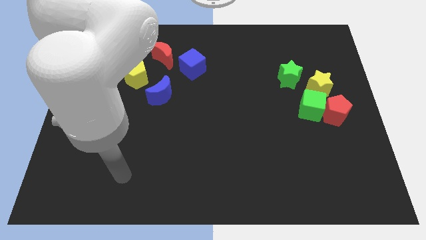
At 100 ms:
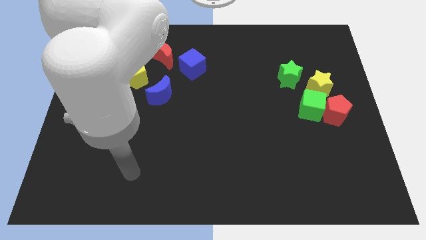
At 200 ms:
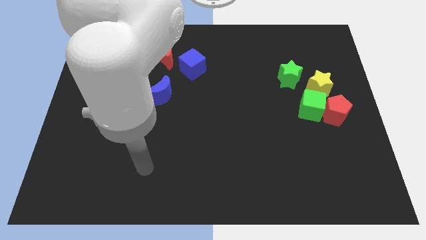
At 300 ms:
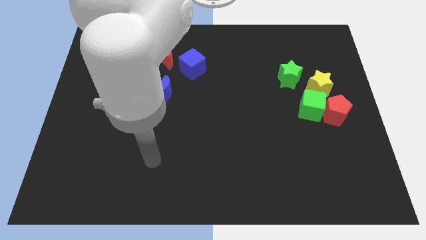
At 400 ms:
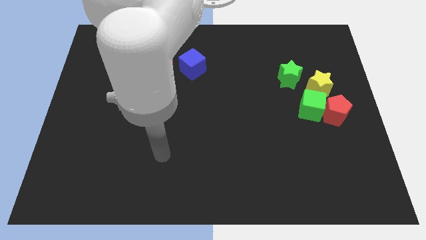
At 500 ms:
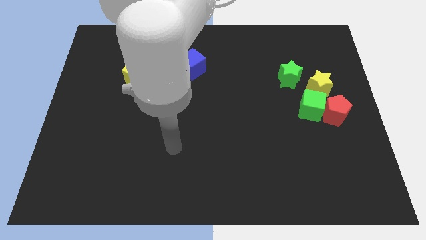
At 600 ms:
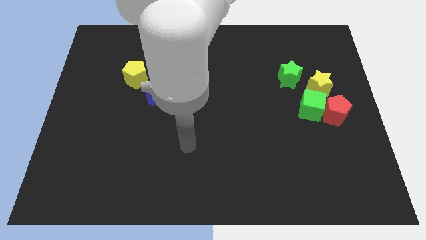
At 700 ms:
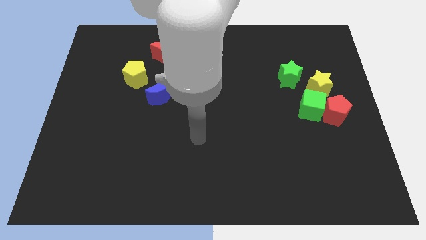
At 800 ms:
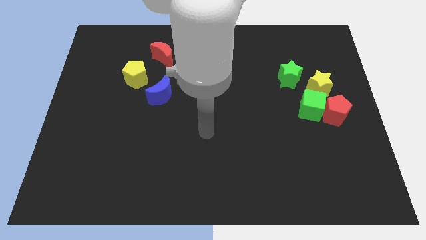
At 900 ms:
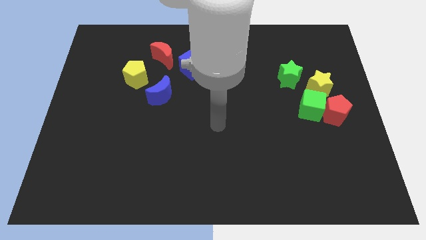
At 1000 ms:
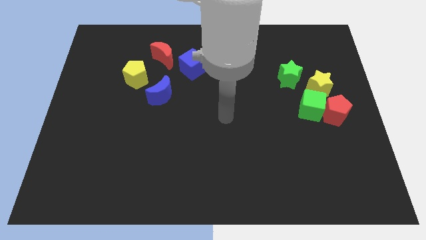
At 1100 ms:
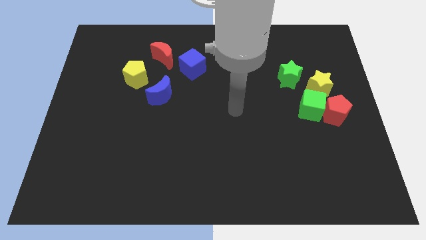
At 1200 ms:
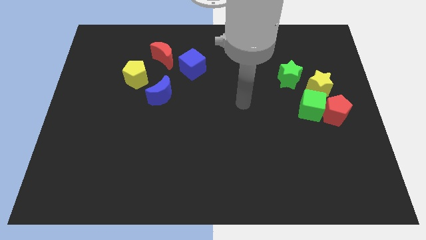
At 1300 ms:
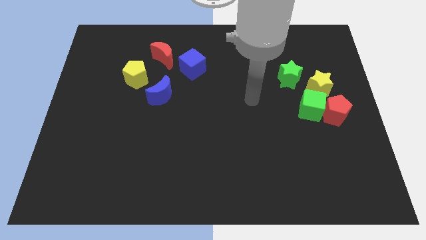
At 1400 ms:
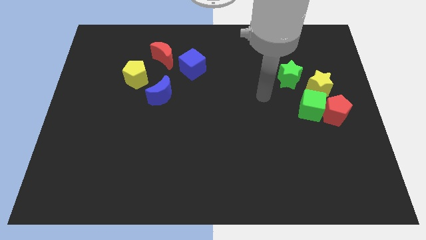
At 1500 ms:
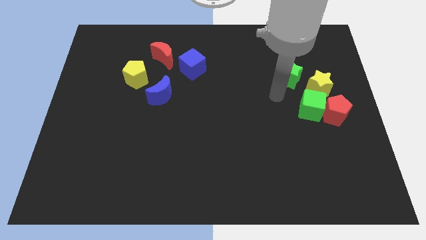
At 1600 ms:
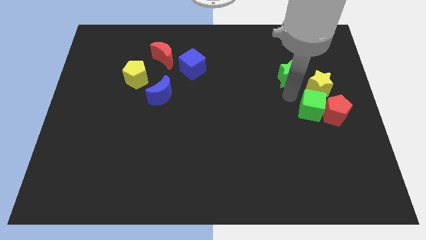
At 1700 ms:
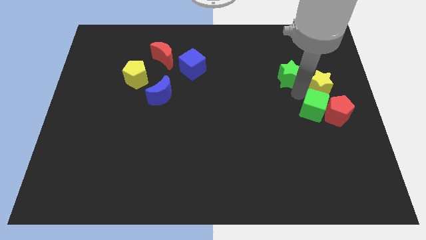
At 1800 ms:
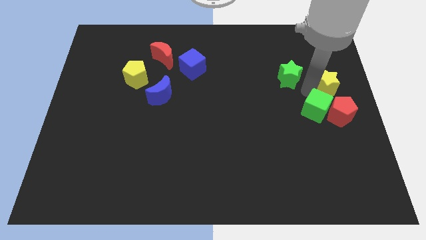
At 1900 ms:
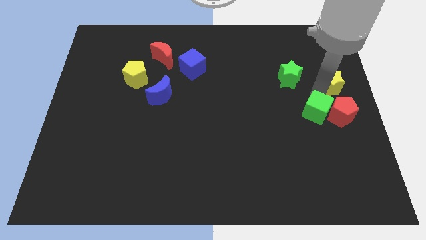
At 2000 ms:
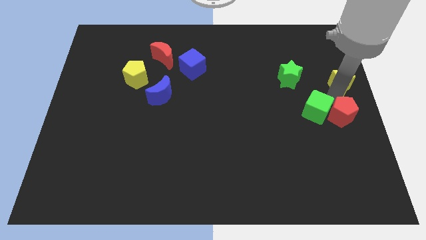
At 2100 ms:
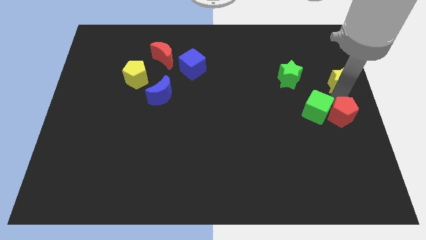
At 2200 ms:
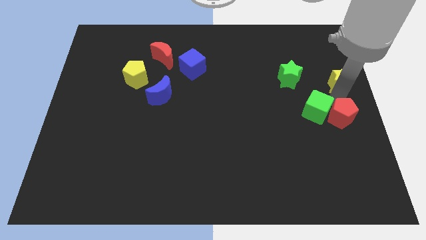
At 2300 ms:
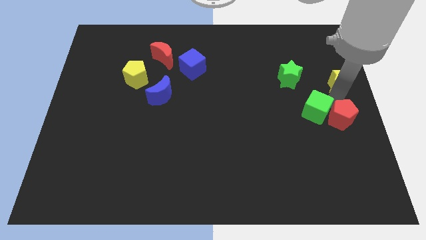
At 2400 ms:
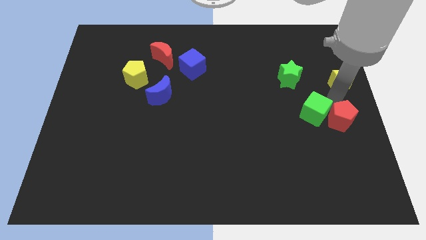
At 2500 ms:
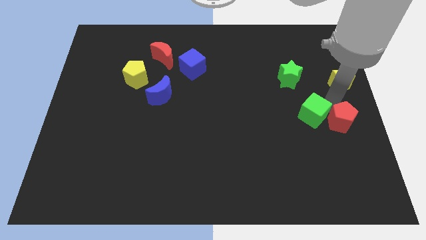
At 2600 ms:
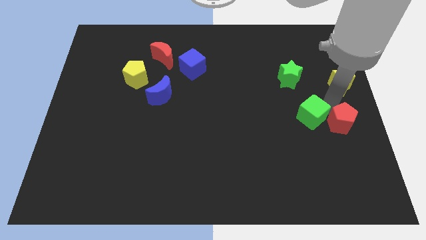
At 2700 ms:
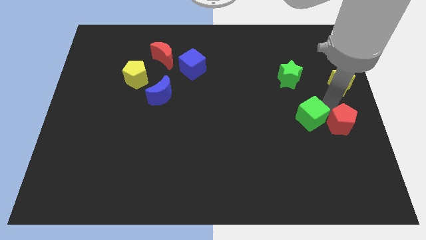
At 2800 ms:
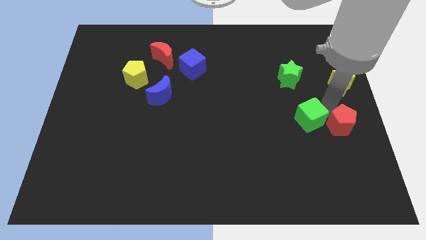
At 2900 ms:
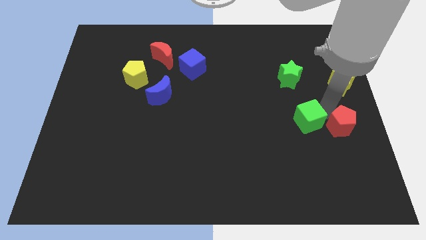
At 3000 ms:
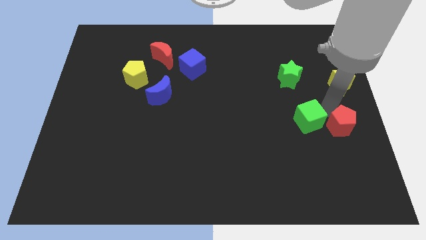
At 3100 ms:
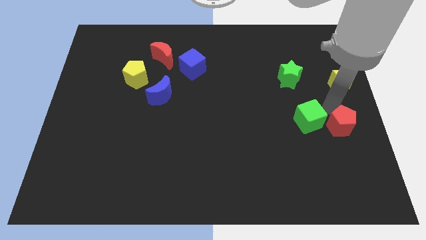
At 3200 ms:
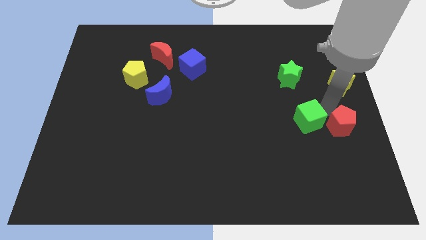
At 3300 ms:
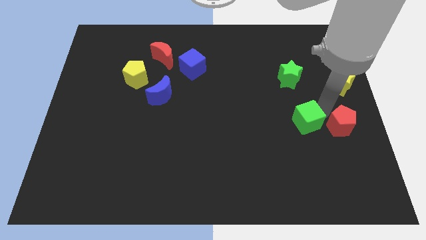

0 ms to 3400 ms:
pull the green cube apart from the red pentagon and yellow star

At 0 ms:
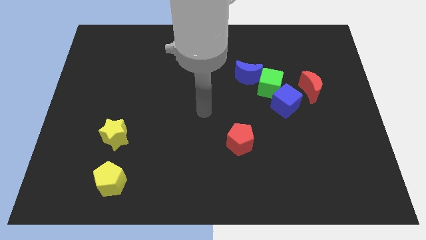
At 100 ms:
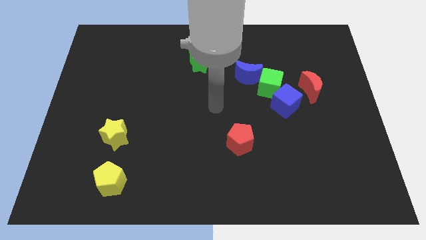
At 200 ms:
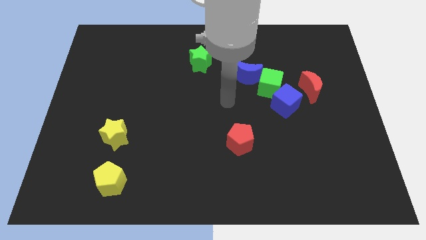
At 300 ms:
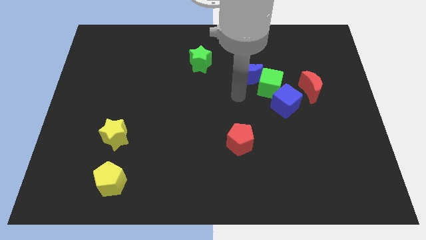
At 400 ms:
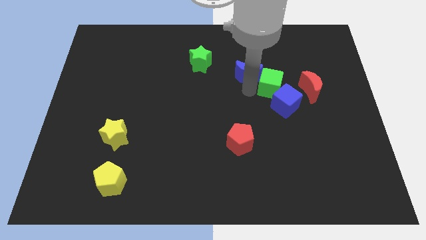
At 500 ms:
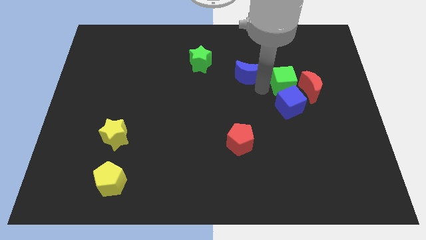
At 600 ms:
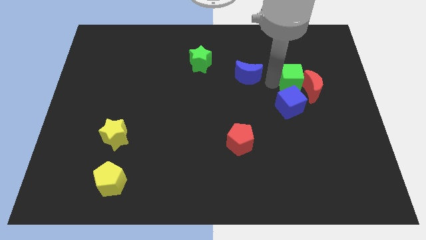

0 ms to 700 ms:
move the blue moon away from the green cube

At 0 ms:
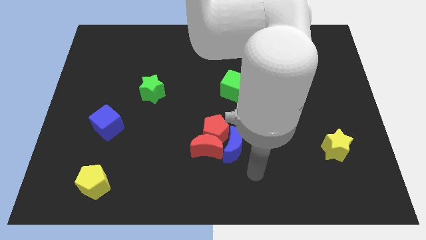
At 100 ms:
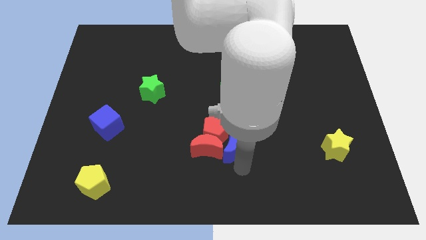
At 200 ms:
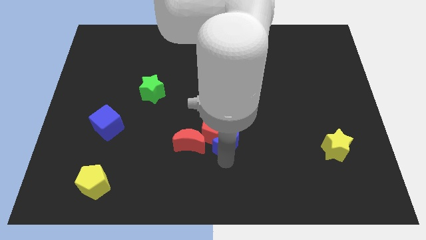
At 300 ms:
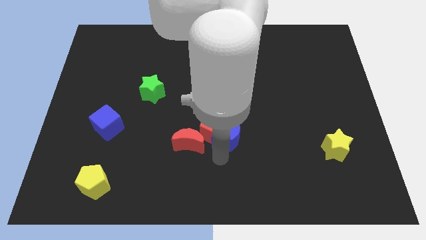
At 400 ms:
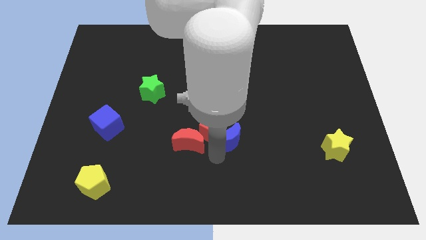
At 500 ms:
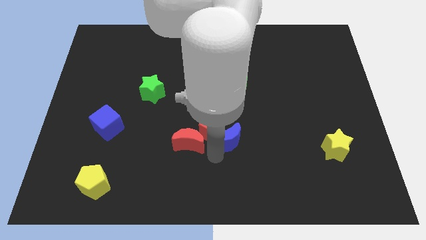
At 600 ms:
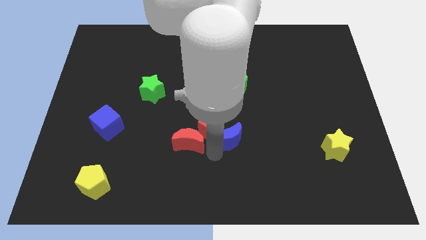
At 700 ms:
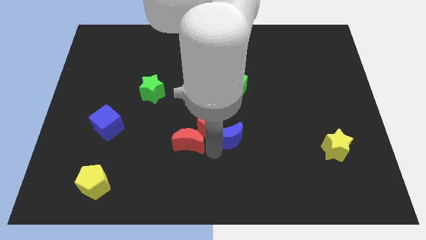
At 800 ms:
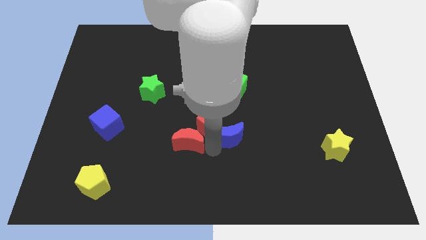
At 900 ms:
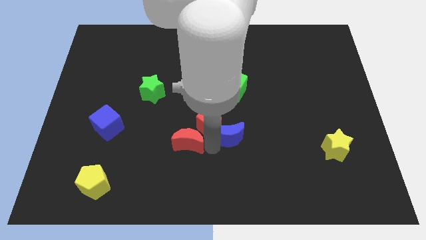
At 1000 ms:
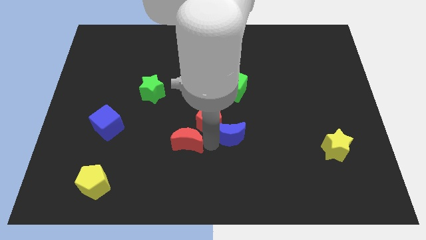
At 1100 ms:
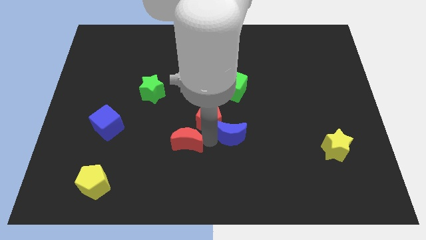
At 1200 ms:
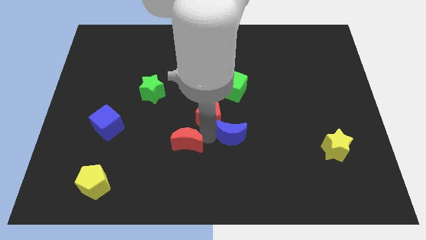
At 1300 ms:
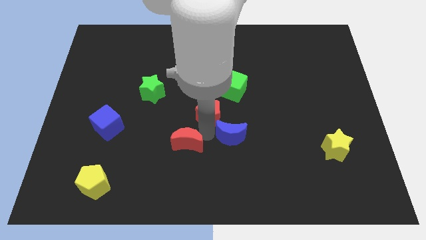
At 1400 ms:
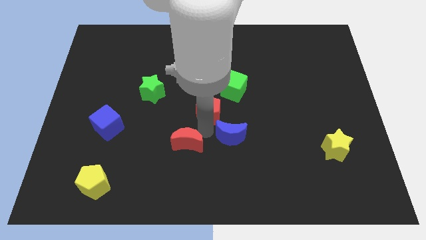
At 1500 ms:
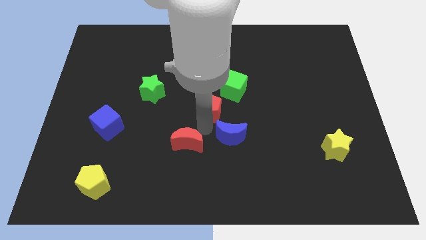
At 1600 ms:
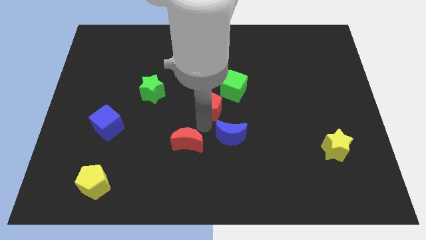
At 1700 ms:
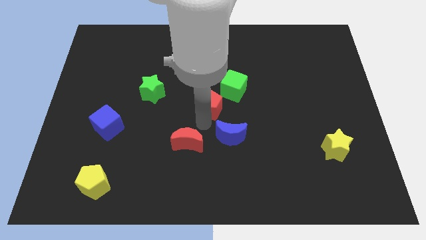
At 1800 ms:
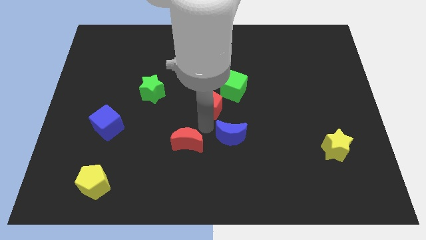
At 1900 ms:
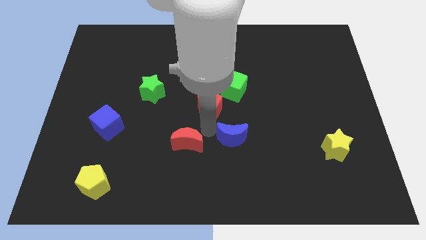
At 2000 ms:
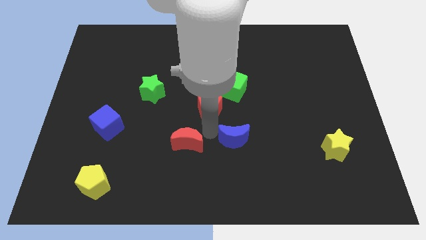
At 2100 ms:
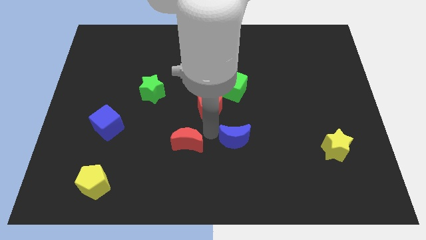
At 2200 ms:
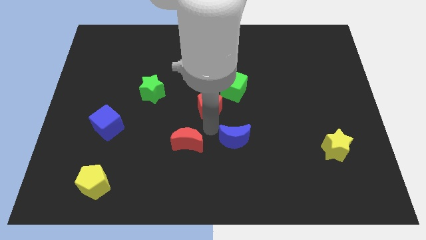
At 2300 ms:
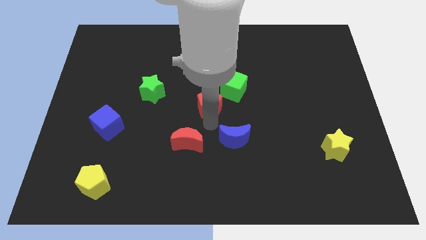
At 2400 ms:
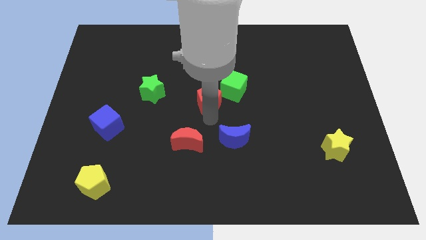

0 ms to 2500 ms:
move the red pentagon away from the red moon and blue moon

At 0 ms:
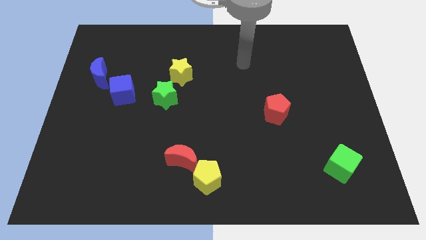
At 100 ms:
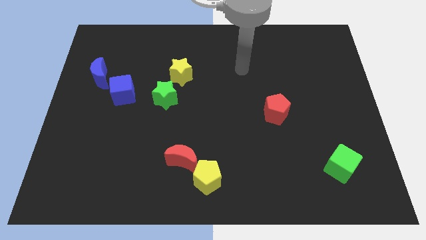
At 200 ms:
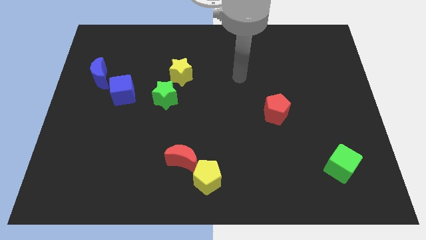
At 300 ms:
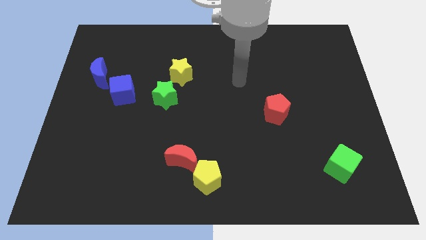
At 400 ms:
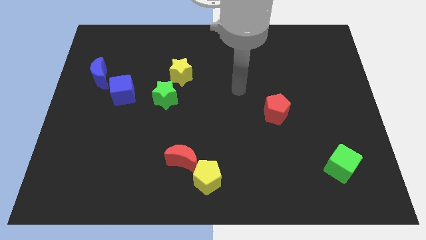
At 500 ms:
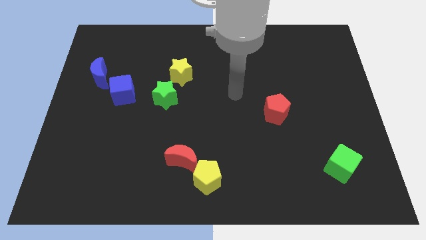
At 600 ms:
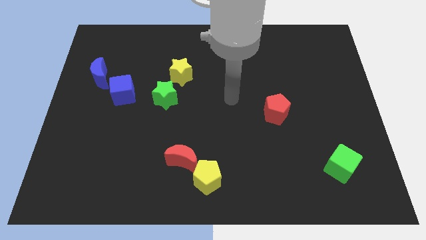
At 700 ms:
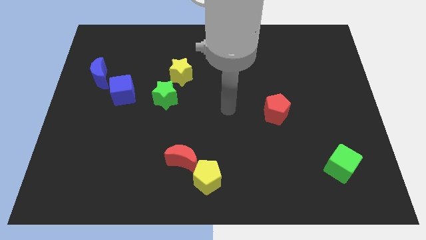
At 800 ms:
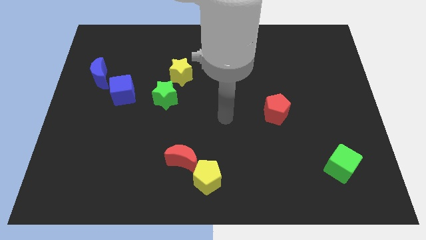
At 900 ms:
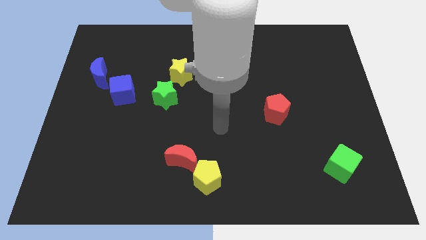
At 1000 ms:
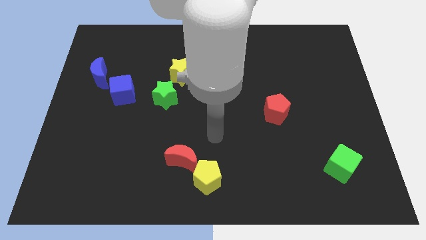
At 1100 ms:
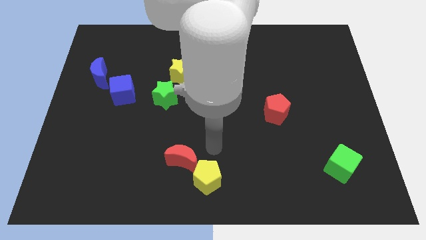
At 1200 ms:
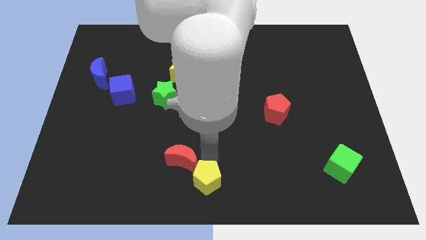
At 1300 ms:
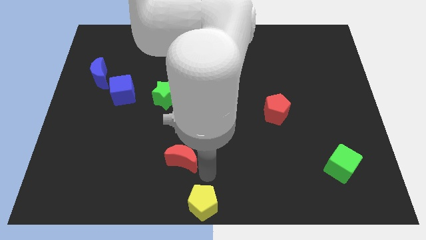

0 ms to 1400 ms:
pull the red moon apart from the yellow pentagon

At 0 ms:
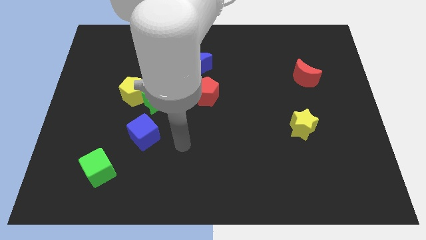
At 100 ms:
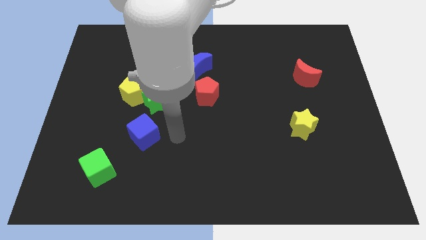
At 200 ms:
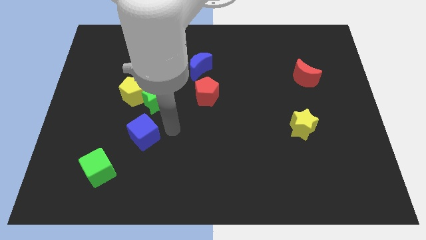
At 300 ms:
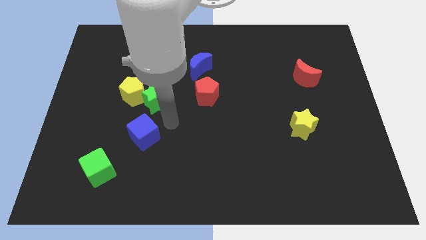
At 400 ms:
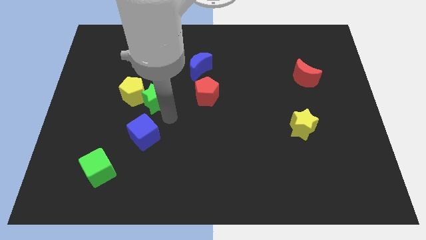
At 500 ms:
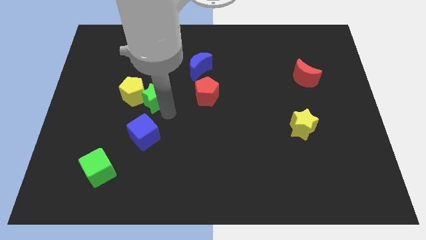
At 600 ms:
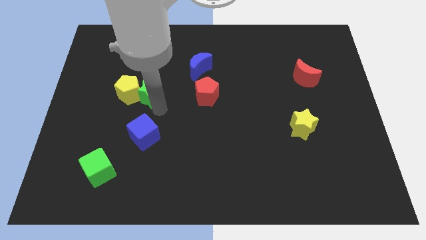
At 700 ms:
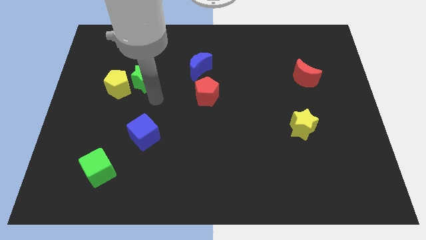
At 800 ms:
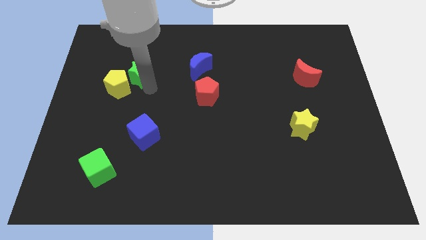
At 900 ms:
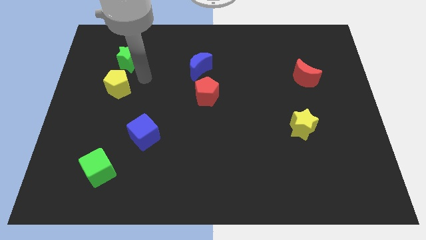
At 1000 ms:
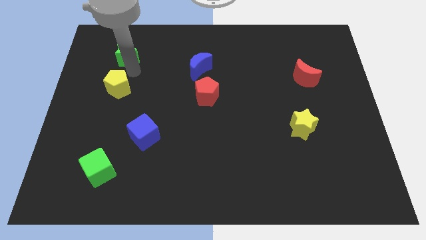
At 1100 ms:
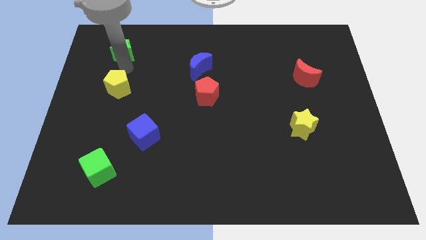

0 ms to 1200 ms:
move the yellow pentagon away from the green star

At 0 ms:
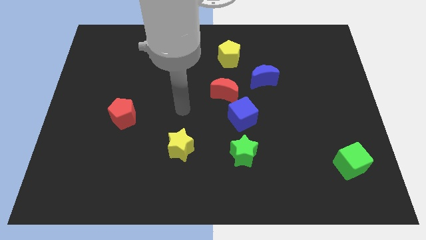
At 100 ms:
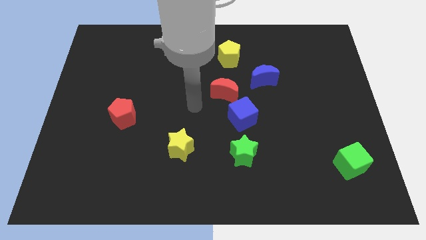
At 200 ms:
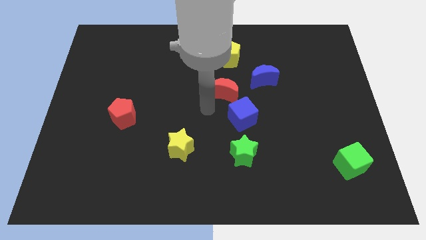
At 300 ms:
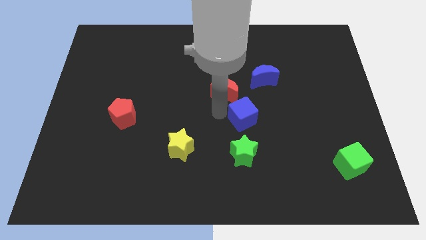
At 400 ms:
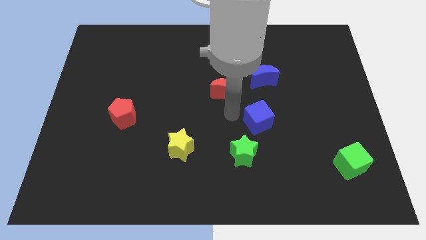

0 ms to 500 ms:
move the red moon away from the blue cube
